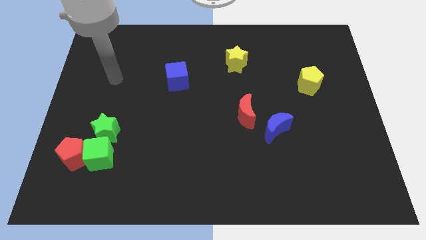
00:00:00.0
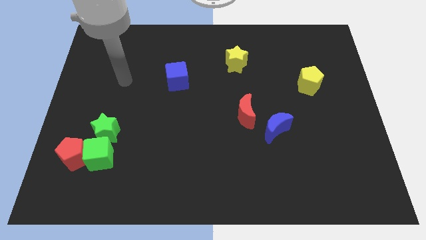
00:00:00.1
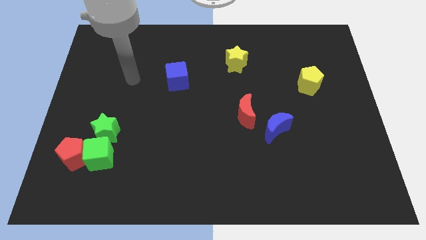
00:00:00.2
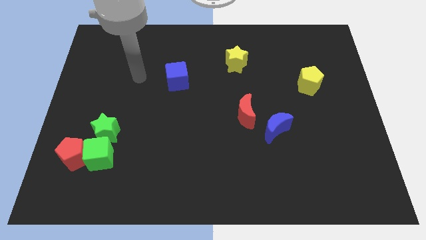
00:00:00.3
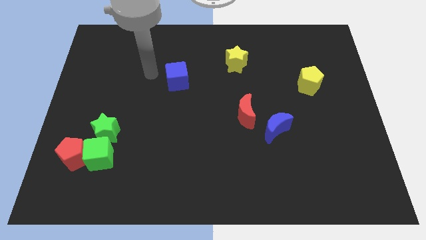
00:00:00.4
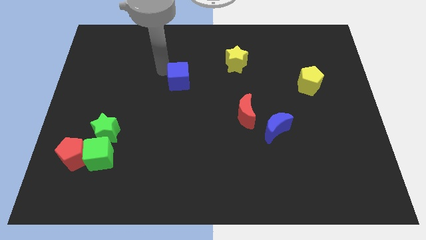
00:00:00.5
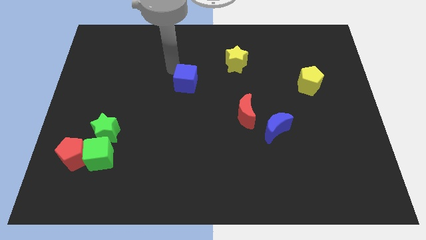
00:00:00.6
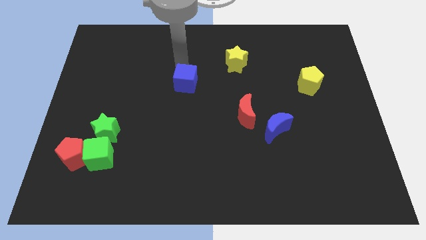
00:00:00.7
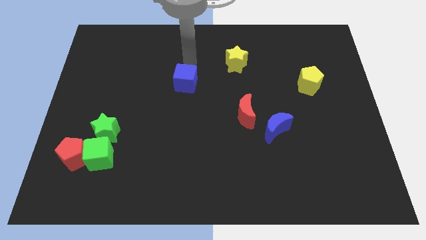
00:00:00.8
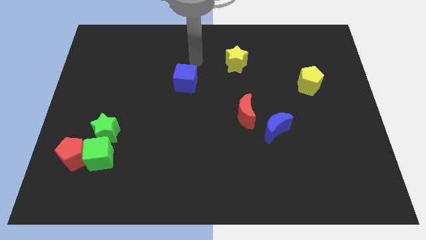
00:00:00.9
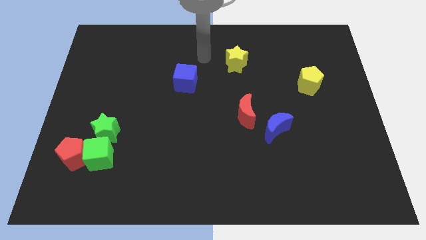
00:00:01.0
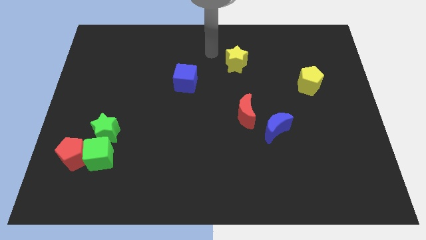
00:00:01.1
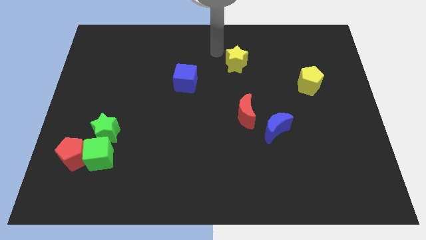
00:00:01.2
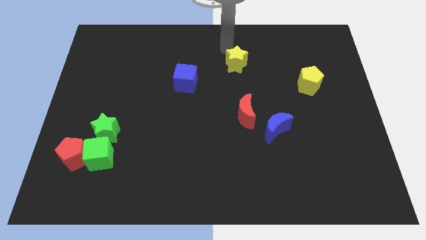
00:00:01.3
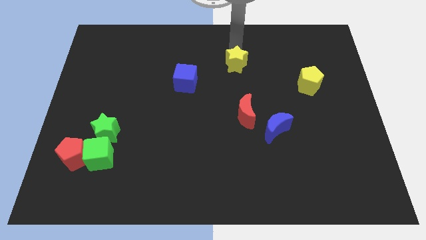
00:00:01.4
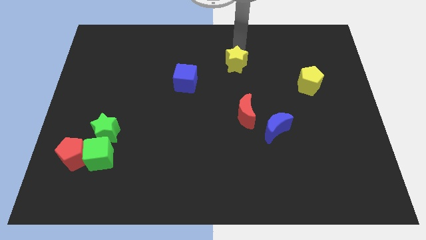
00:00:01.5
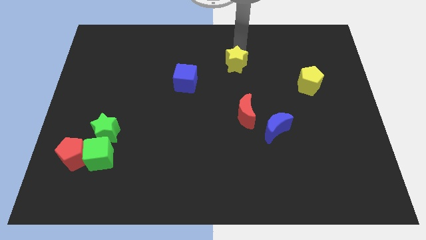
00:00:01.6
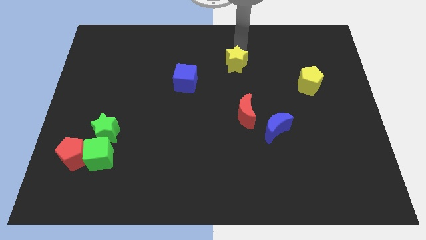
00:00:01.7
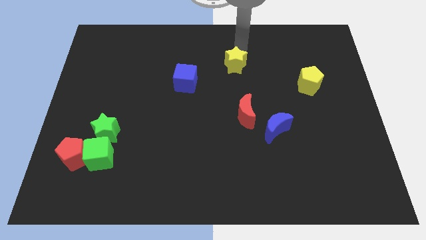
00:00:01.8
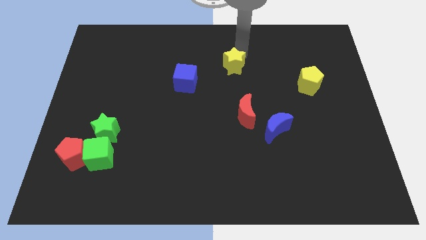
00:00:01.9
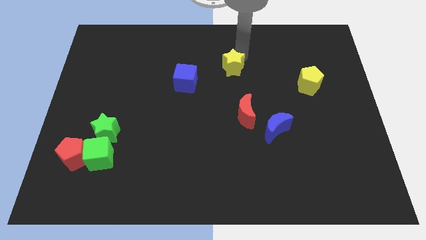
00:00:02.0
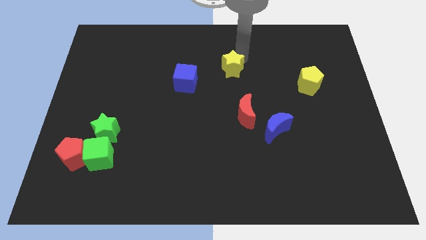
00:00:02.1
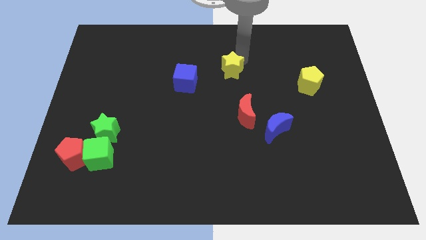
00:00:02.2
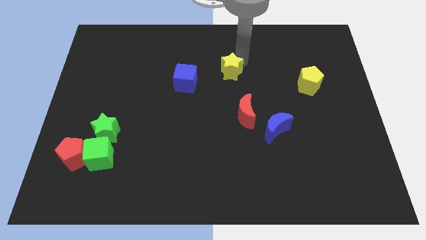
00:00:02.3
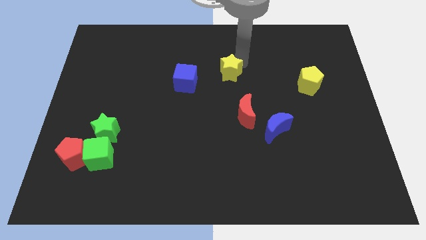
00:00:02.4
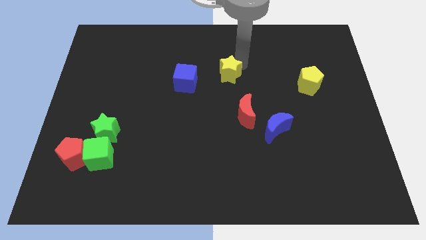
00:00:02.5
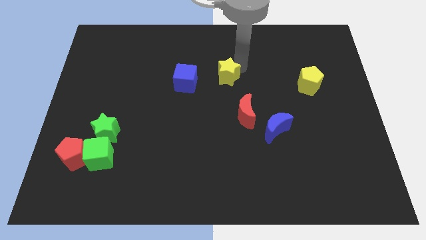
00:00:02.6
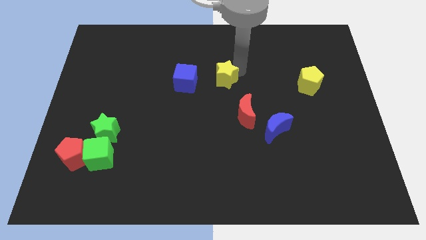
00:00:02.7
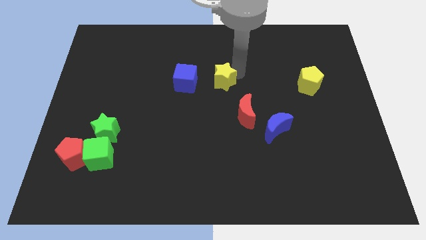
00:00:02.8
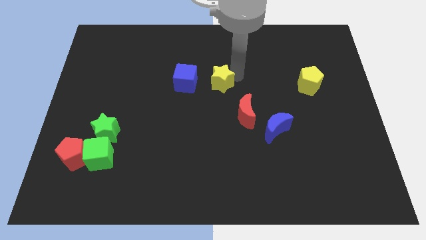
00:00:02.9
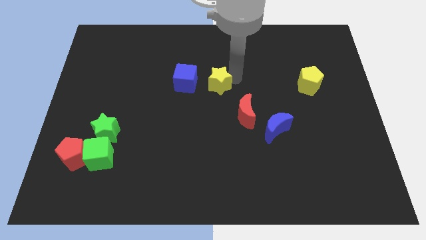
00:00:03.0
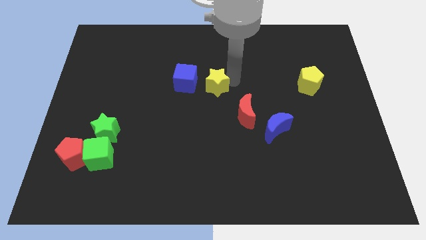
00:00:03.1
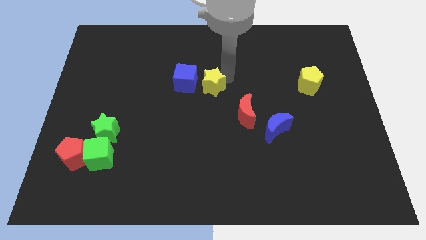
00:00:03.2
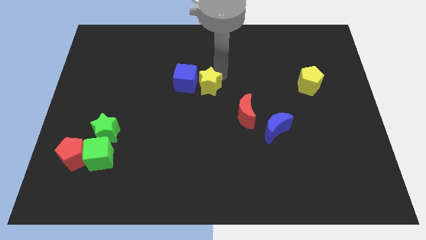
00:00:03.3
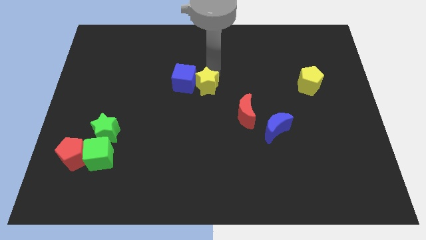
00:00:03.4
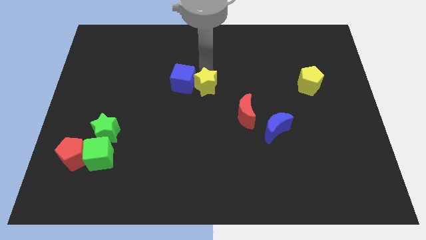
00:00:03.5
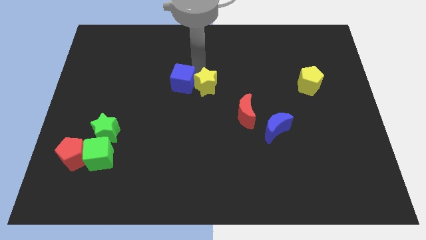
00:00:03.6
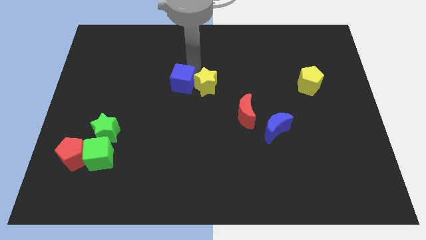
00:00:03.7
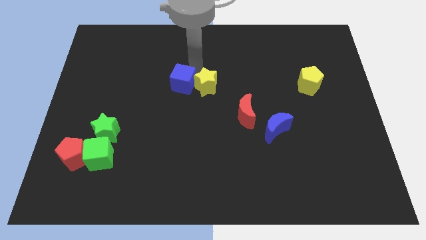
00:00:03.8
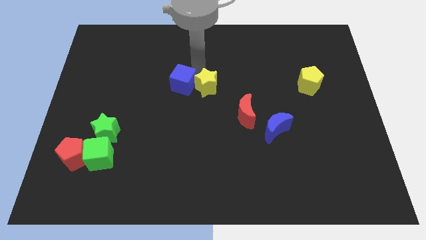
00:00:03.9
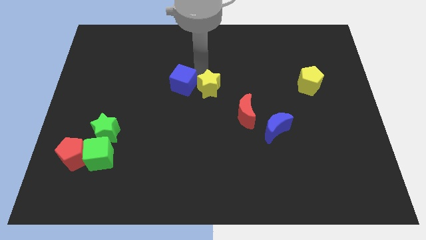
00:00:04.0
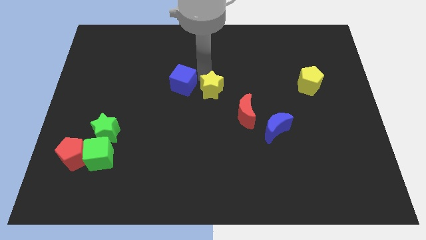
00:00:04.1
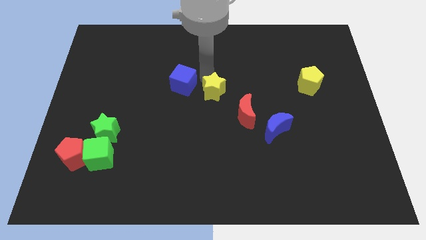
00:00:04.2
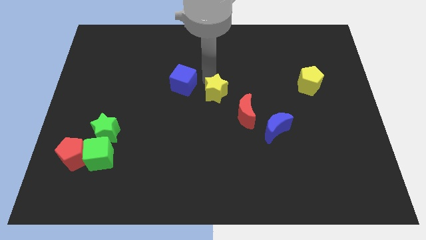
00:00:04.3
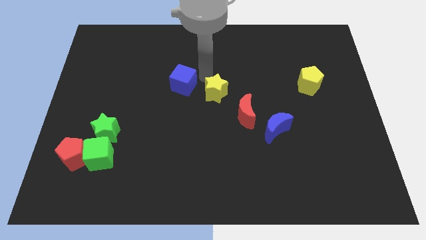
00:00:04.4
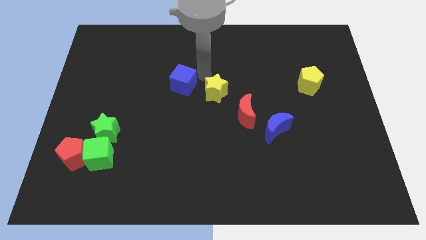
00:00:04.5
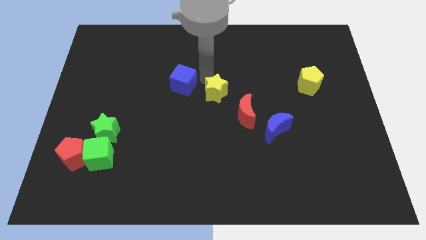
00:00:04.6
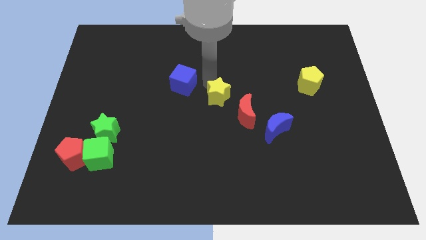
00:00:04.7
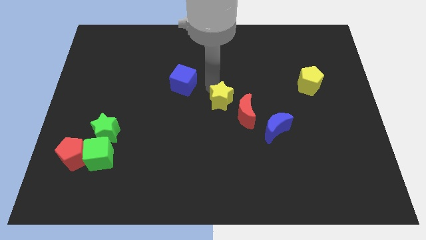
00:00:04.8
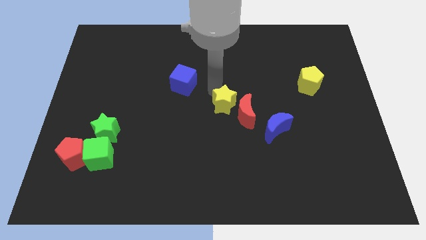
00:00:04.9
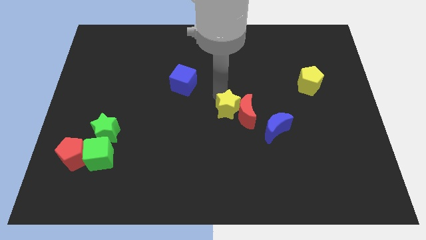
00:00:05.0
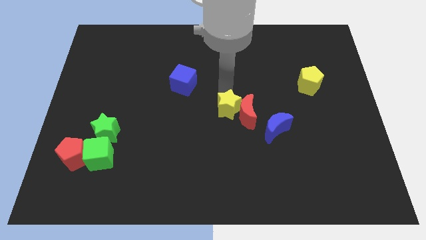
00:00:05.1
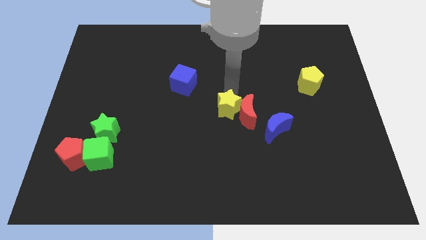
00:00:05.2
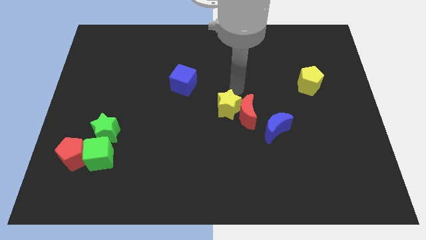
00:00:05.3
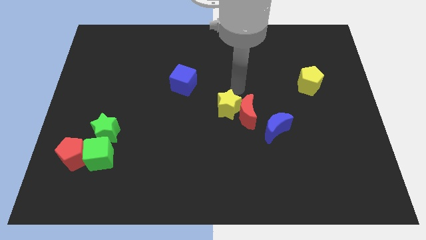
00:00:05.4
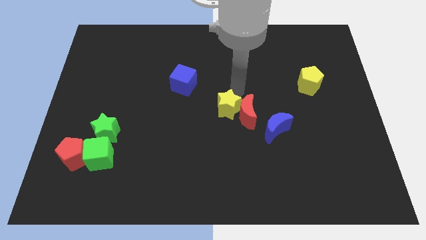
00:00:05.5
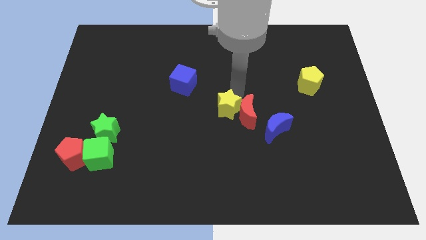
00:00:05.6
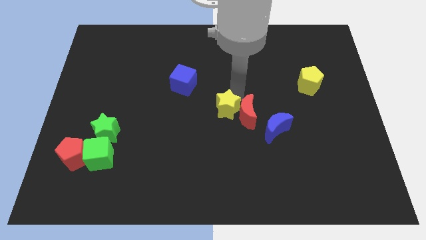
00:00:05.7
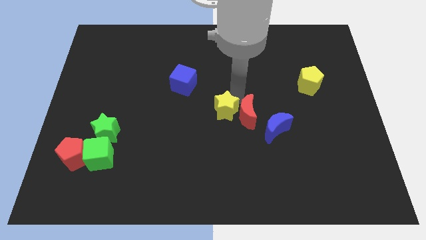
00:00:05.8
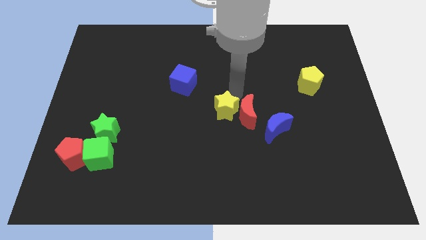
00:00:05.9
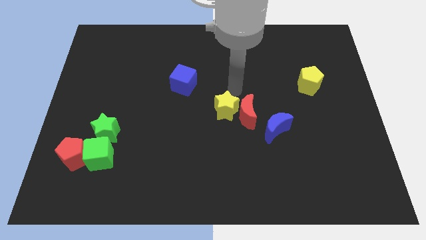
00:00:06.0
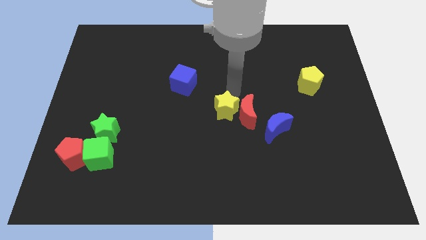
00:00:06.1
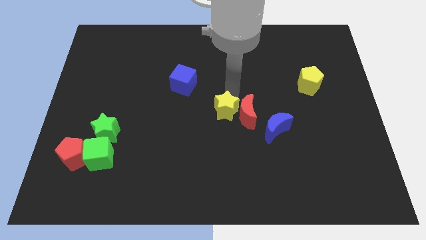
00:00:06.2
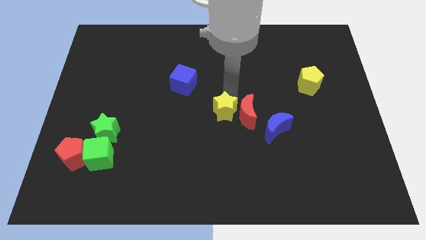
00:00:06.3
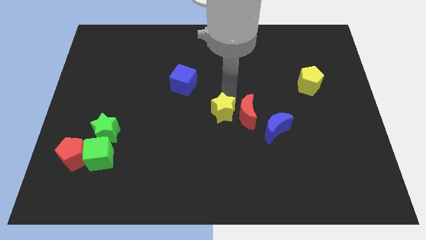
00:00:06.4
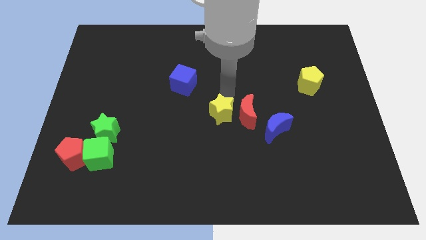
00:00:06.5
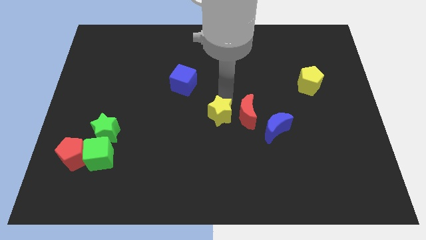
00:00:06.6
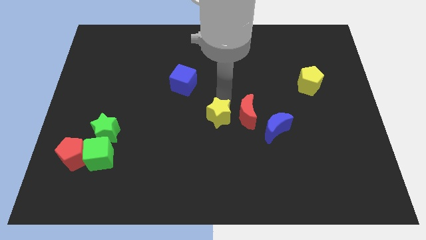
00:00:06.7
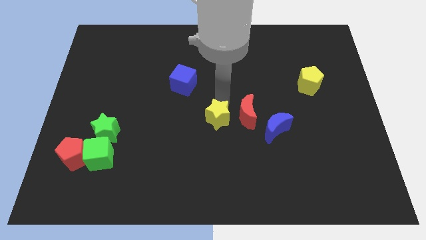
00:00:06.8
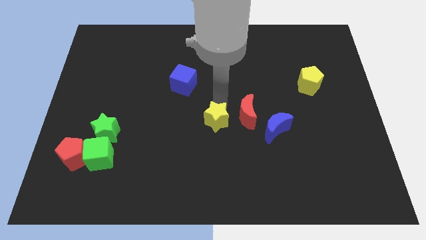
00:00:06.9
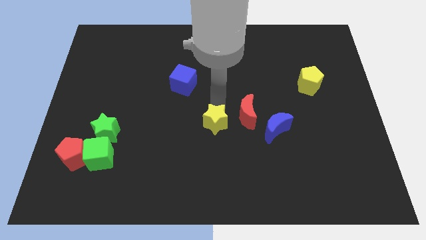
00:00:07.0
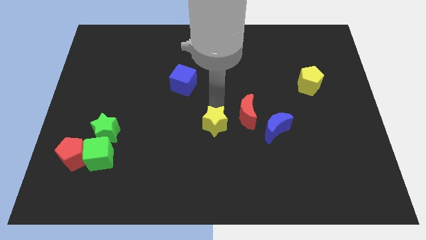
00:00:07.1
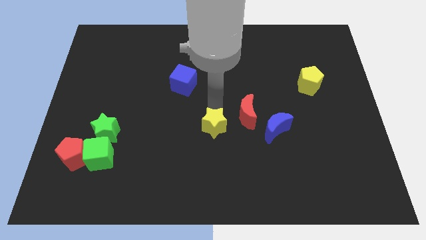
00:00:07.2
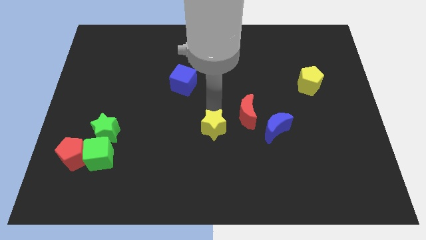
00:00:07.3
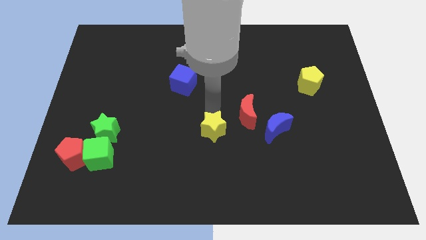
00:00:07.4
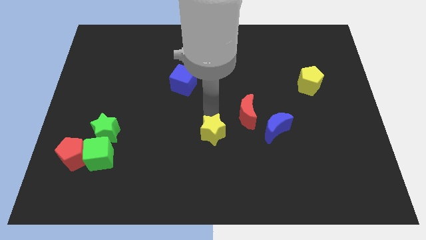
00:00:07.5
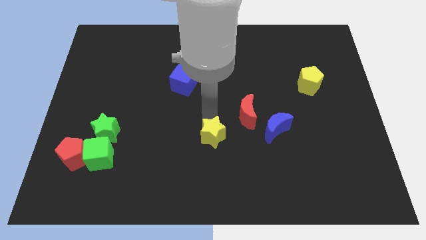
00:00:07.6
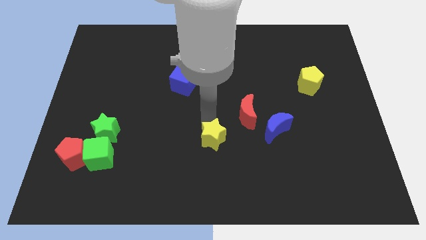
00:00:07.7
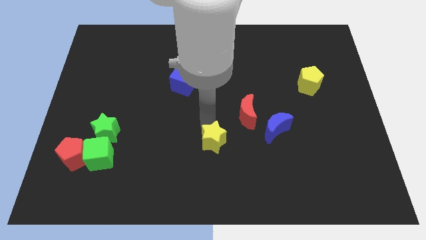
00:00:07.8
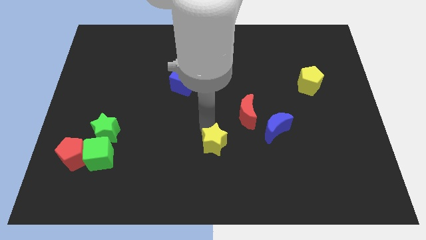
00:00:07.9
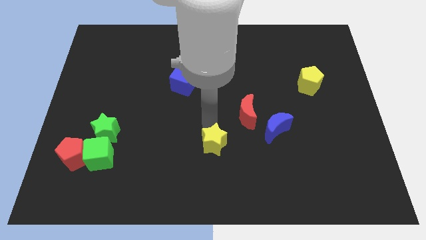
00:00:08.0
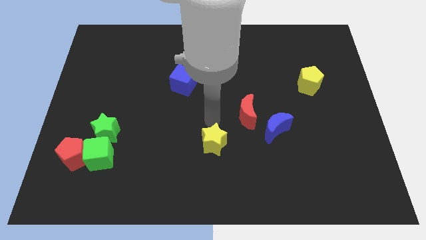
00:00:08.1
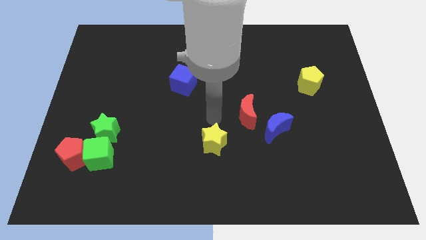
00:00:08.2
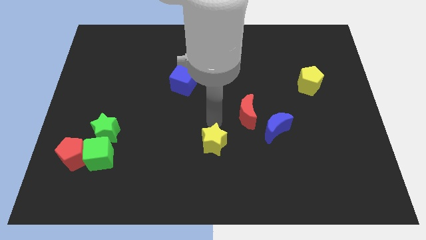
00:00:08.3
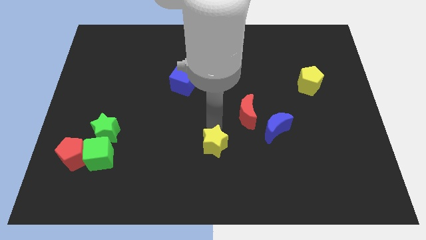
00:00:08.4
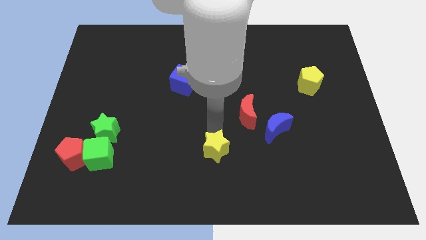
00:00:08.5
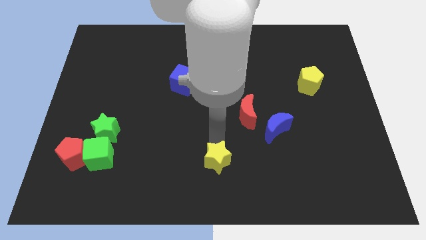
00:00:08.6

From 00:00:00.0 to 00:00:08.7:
slide the yellow star to the bottom side
